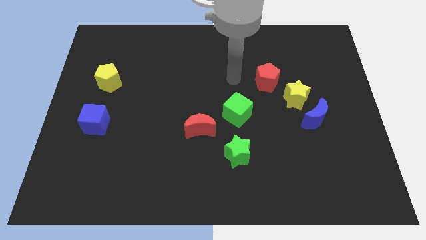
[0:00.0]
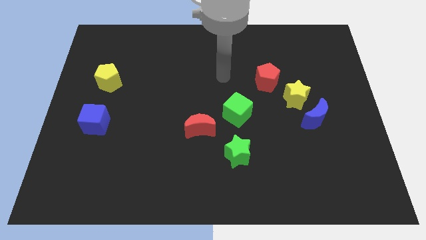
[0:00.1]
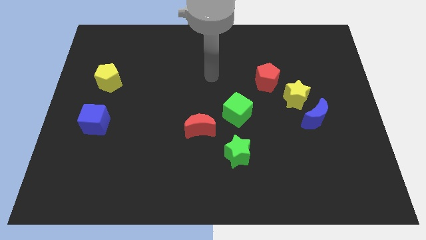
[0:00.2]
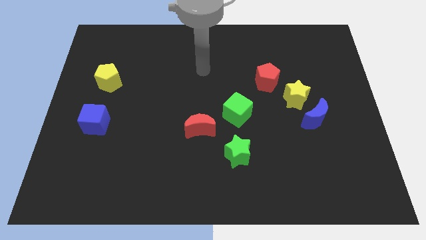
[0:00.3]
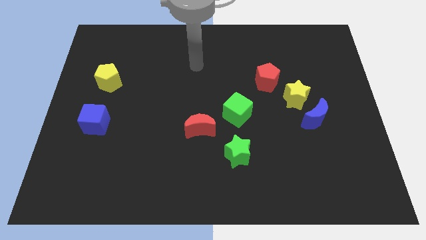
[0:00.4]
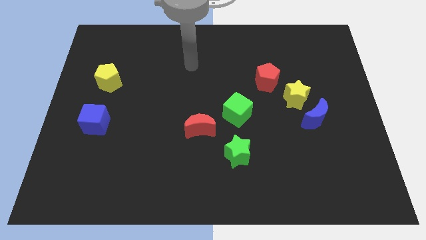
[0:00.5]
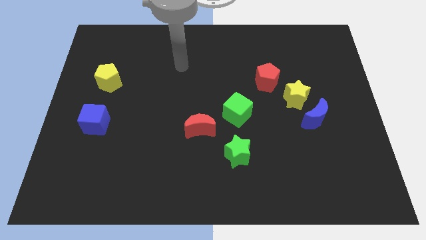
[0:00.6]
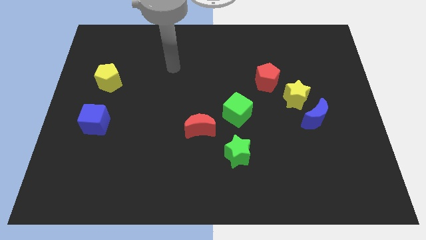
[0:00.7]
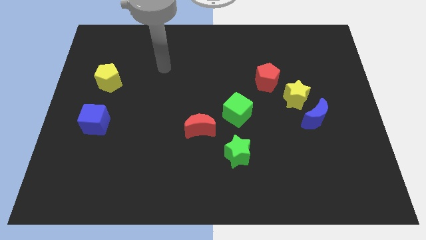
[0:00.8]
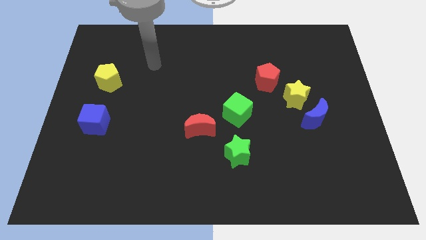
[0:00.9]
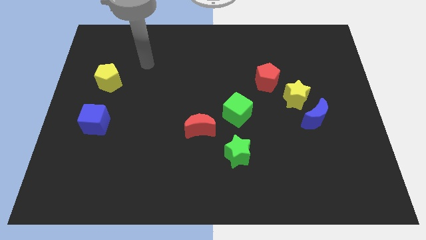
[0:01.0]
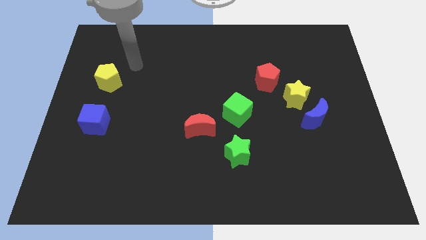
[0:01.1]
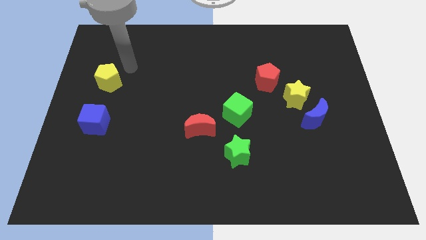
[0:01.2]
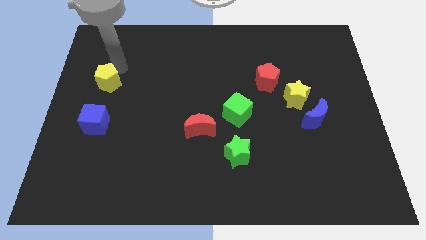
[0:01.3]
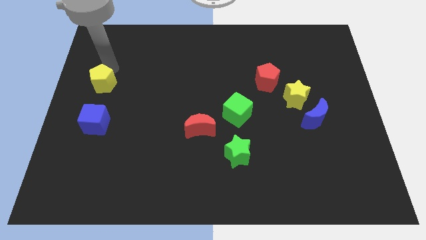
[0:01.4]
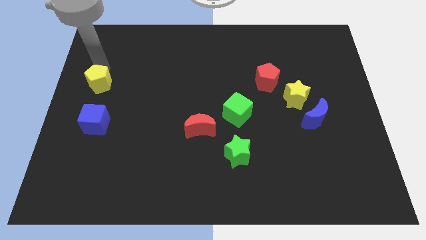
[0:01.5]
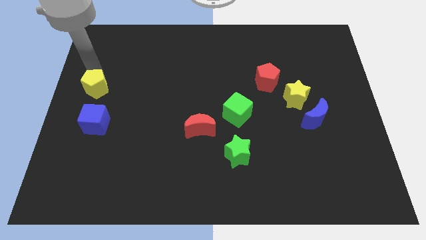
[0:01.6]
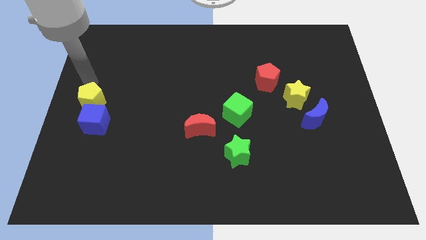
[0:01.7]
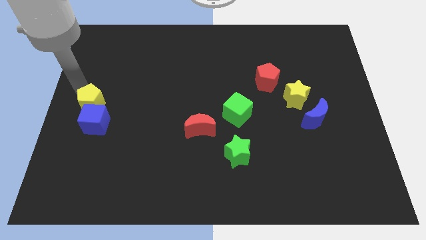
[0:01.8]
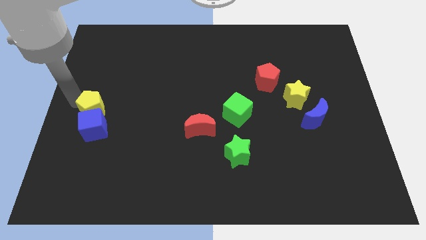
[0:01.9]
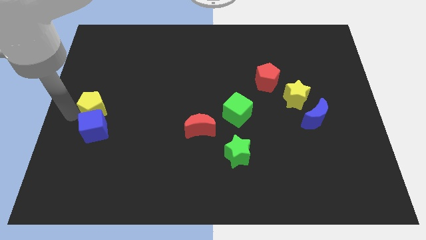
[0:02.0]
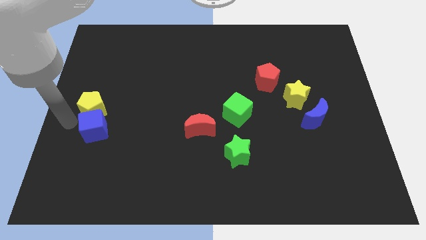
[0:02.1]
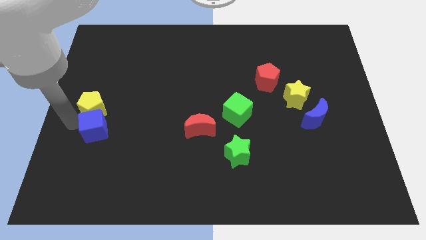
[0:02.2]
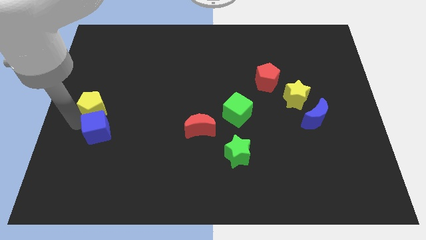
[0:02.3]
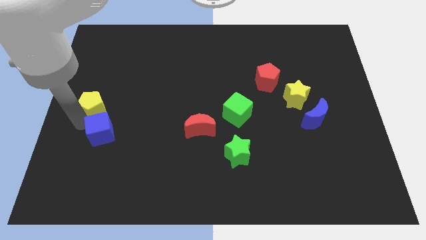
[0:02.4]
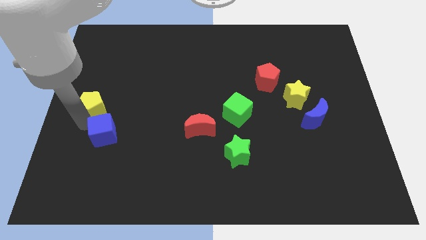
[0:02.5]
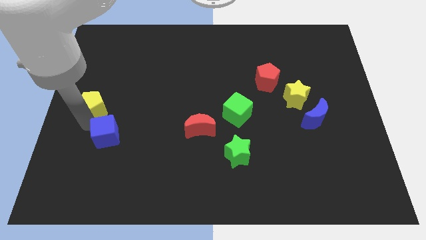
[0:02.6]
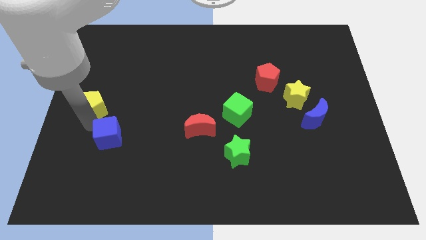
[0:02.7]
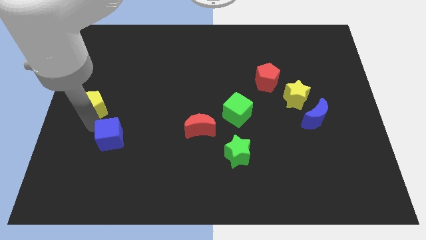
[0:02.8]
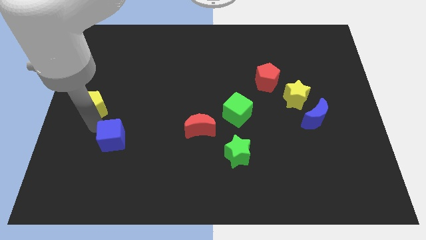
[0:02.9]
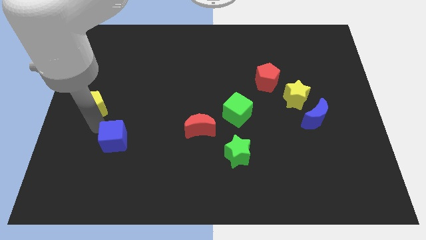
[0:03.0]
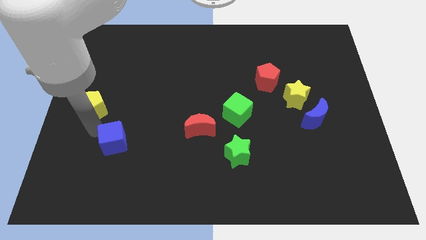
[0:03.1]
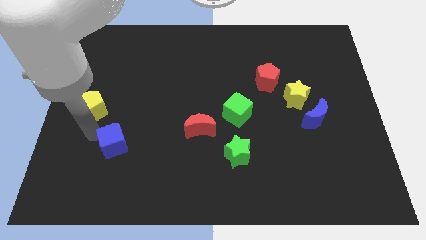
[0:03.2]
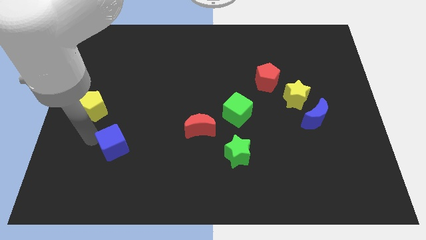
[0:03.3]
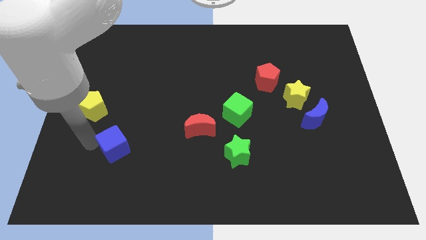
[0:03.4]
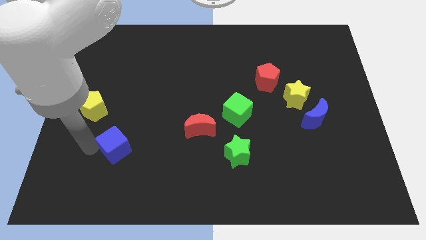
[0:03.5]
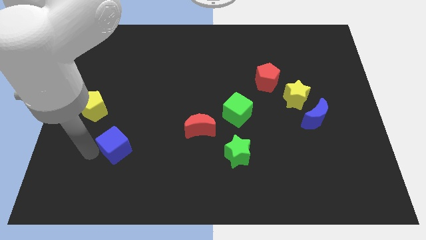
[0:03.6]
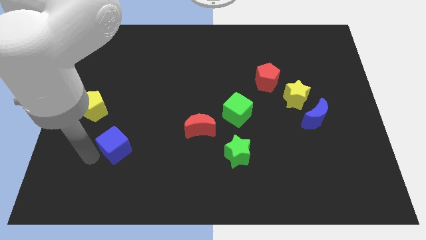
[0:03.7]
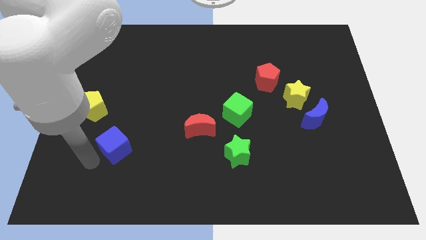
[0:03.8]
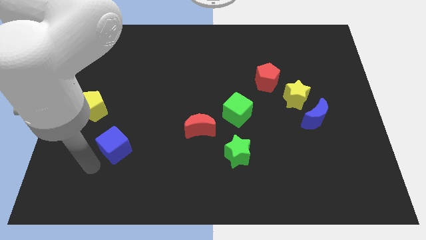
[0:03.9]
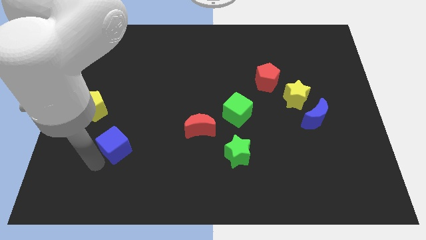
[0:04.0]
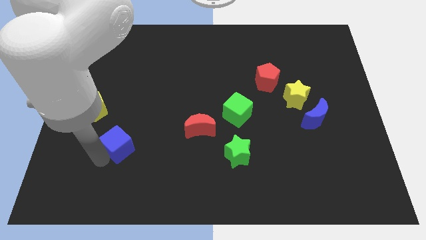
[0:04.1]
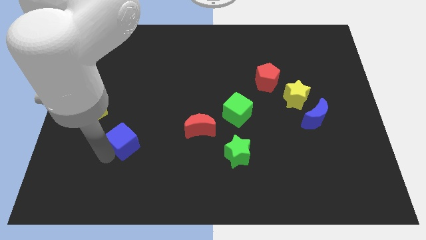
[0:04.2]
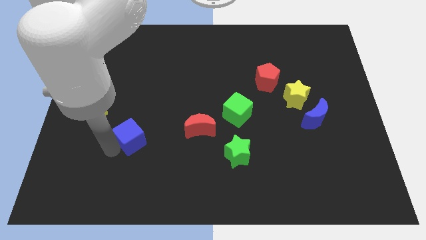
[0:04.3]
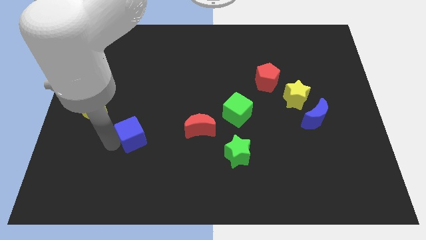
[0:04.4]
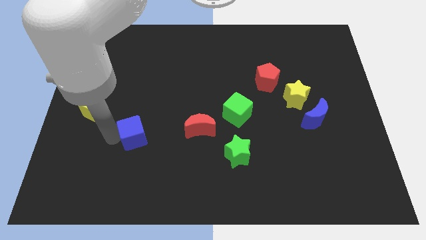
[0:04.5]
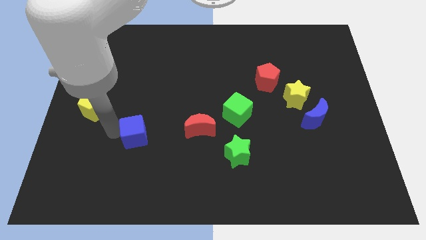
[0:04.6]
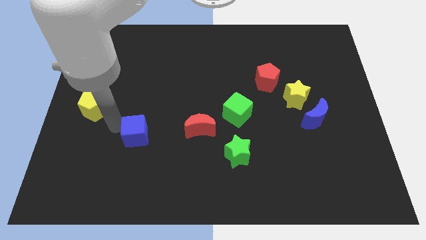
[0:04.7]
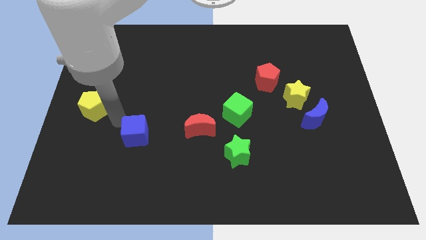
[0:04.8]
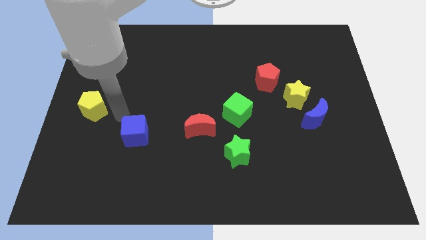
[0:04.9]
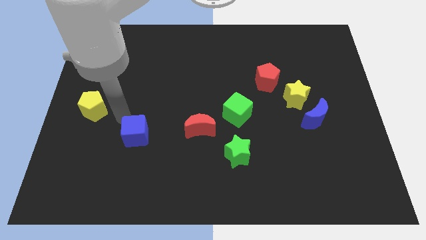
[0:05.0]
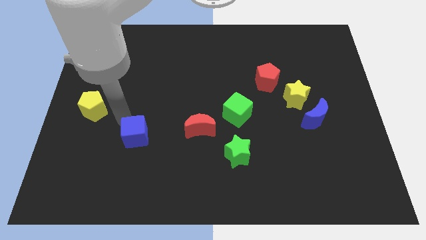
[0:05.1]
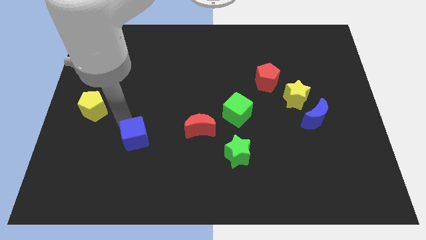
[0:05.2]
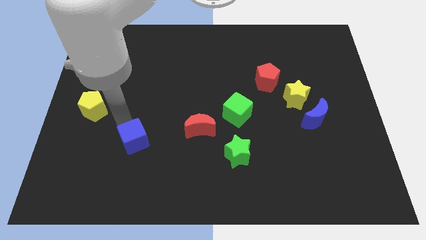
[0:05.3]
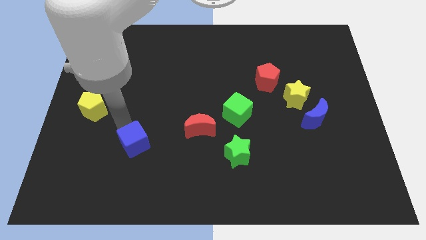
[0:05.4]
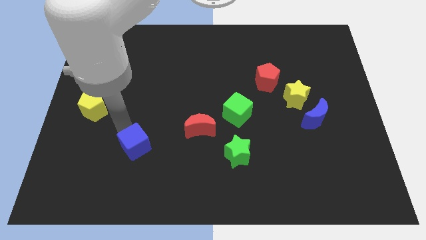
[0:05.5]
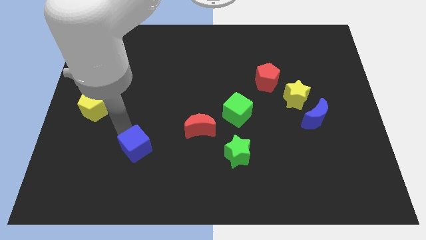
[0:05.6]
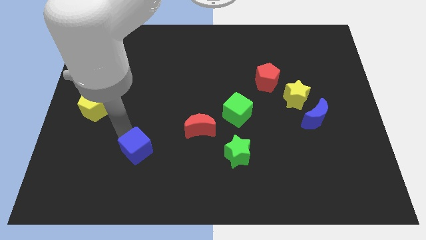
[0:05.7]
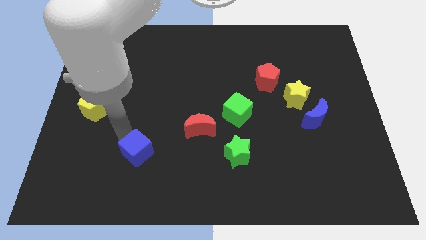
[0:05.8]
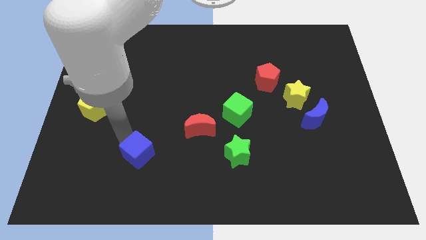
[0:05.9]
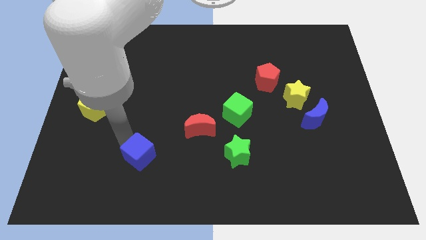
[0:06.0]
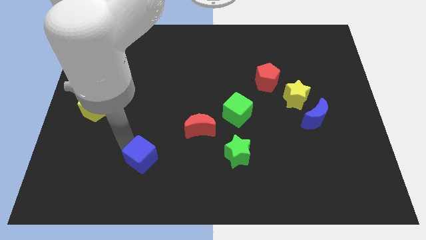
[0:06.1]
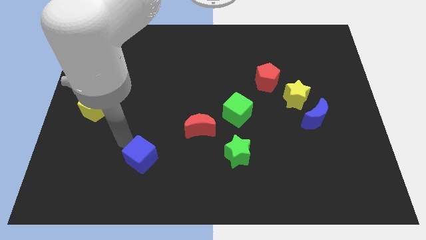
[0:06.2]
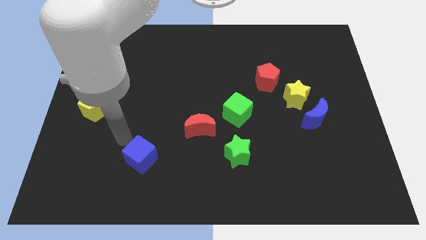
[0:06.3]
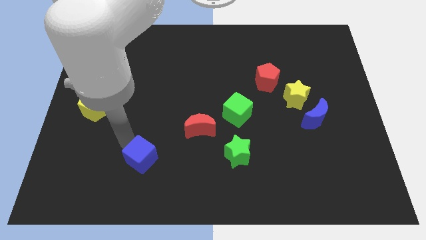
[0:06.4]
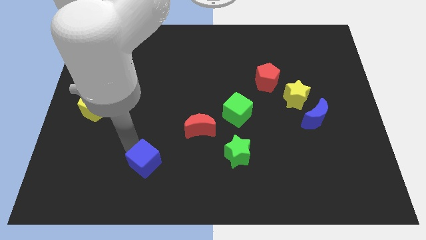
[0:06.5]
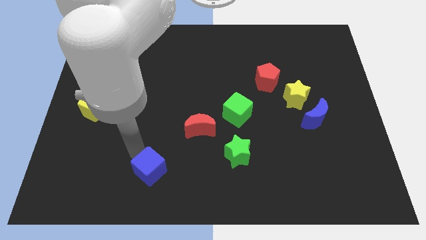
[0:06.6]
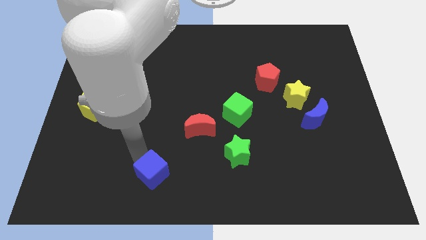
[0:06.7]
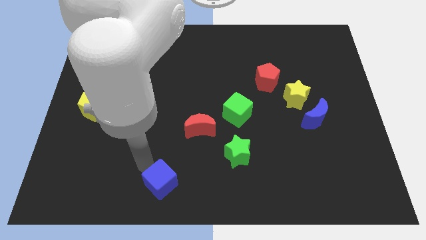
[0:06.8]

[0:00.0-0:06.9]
move the blue cube to the bottom side

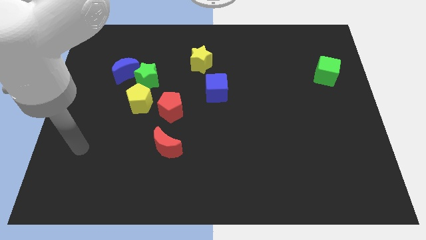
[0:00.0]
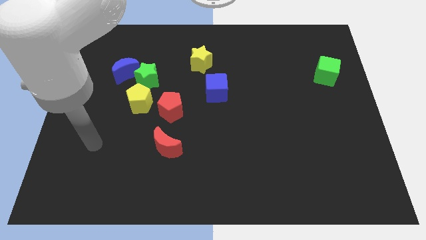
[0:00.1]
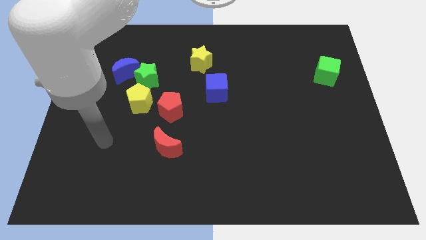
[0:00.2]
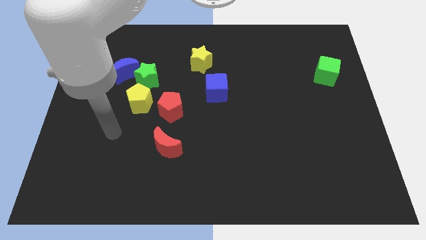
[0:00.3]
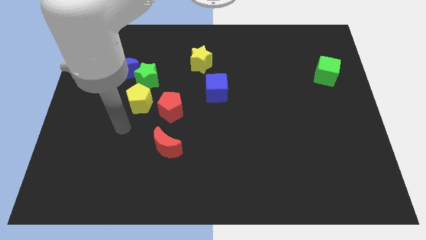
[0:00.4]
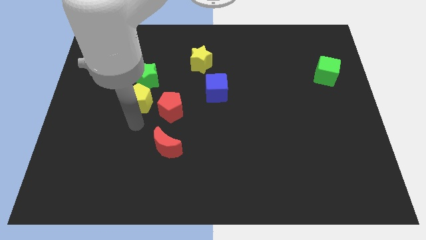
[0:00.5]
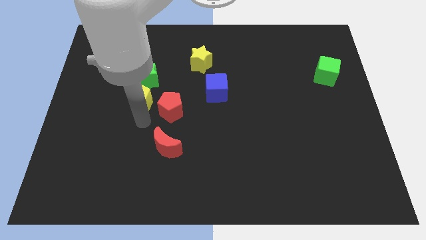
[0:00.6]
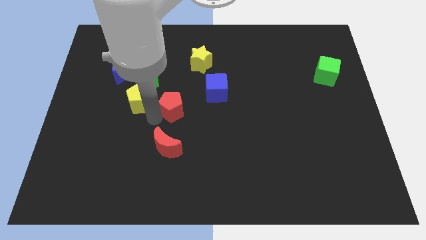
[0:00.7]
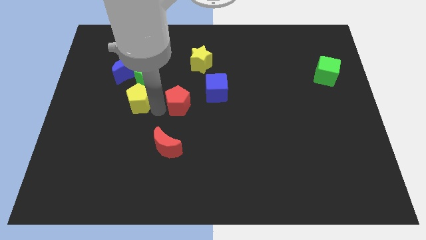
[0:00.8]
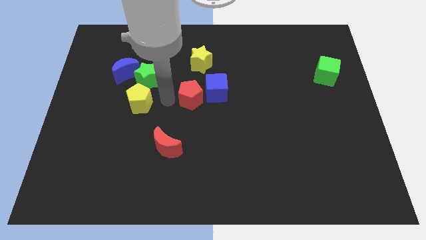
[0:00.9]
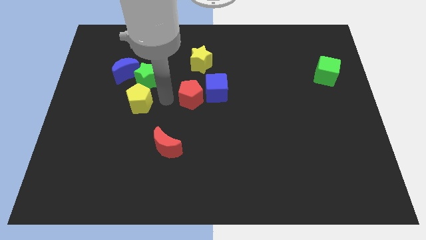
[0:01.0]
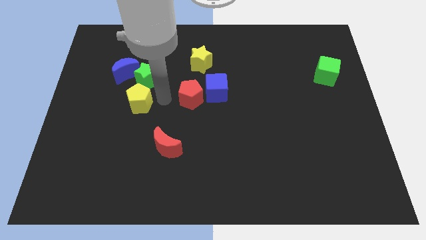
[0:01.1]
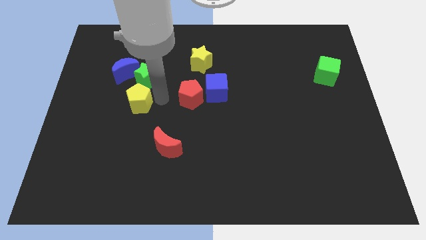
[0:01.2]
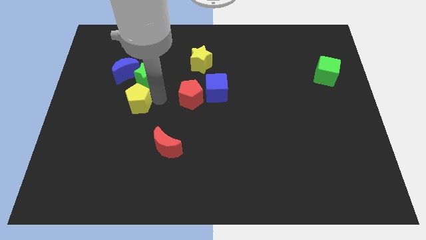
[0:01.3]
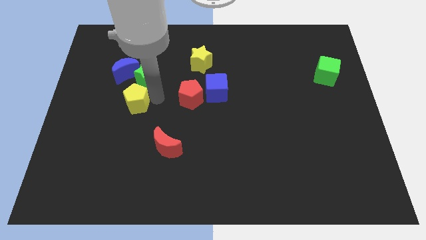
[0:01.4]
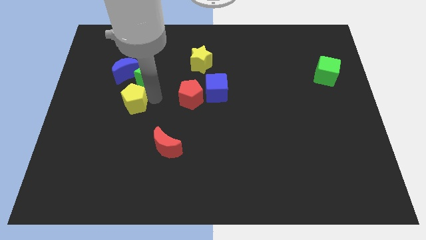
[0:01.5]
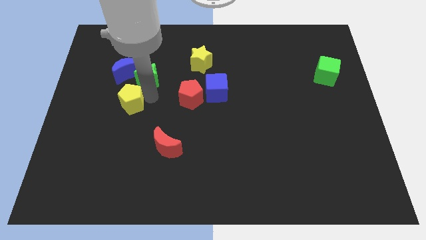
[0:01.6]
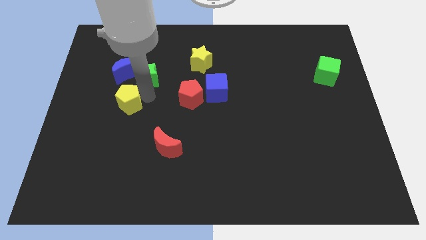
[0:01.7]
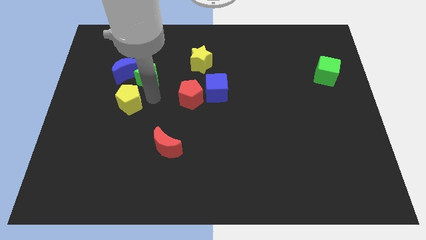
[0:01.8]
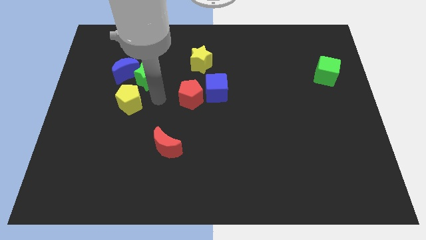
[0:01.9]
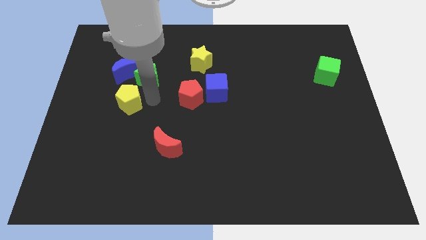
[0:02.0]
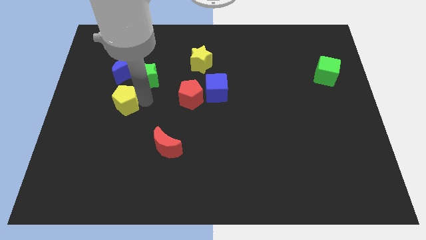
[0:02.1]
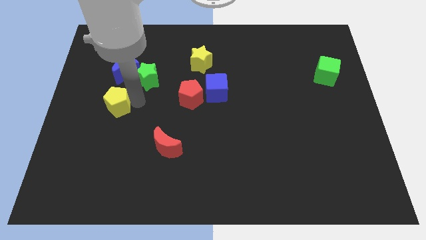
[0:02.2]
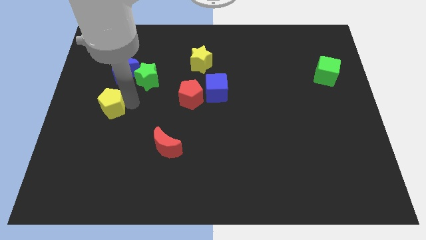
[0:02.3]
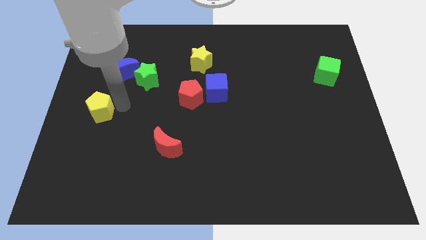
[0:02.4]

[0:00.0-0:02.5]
push the yellow pentagon to the left side
